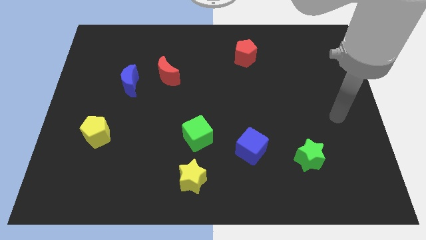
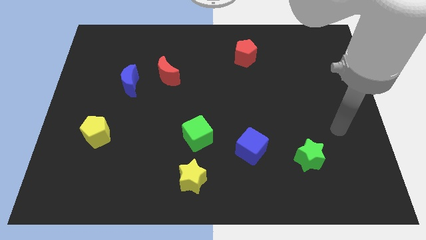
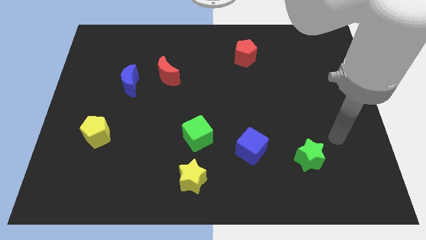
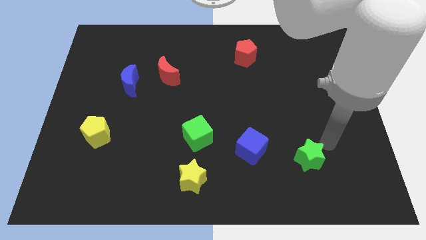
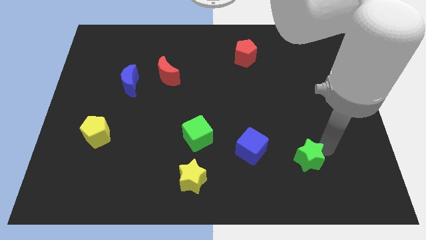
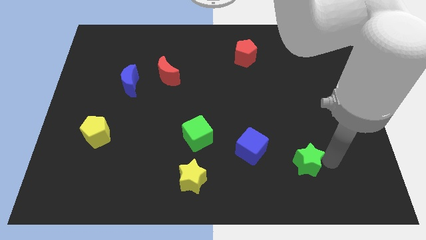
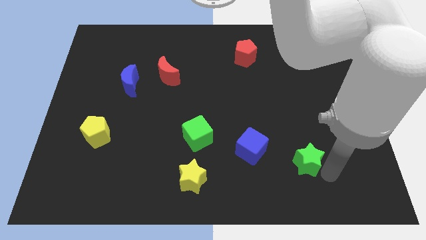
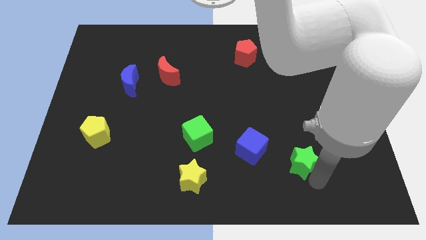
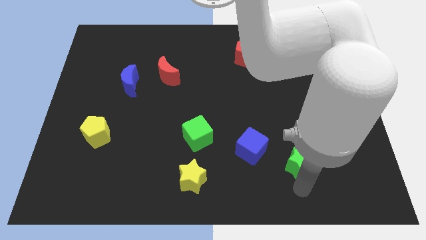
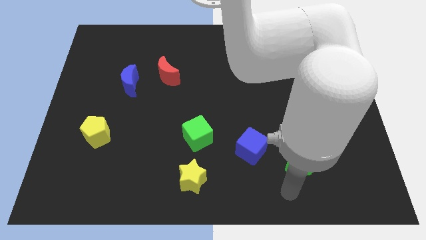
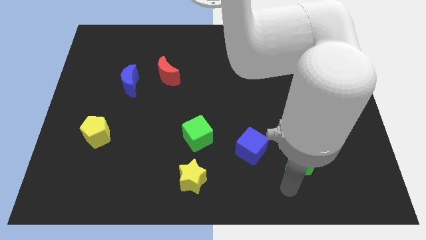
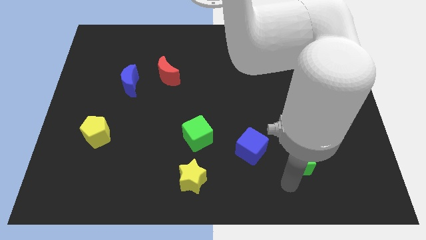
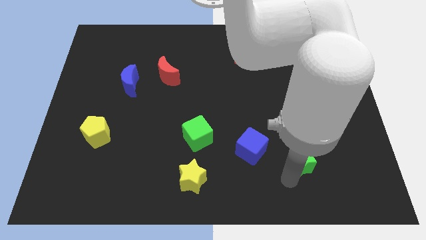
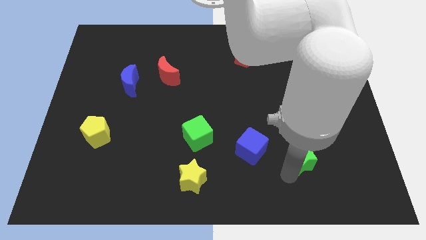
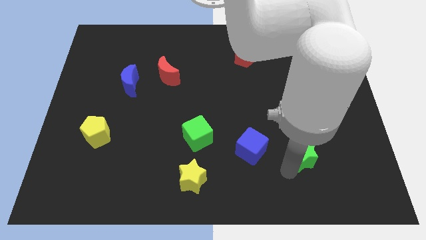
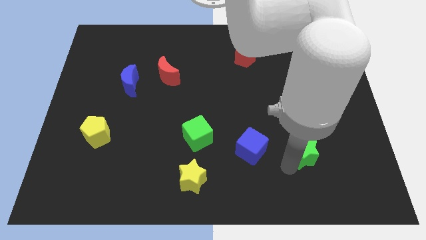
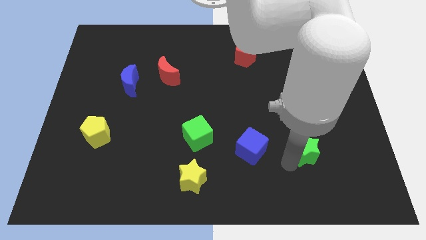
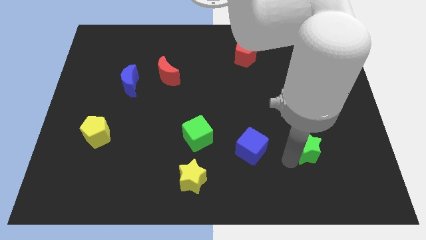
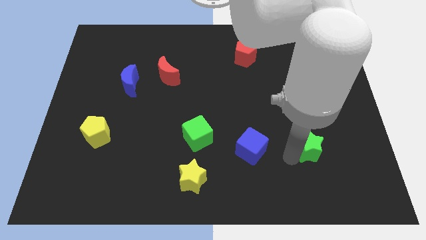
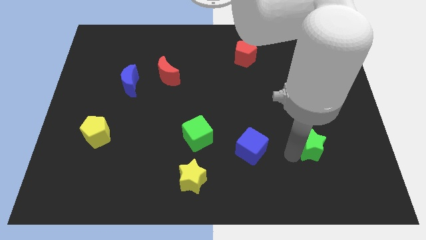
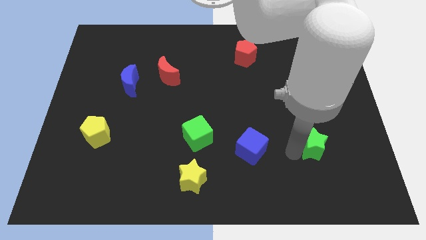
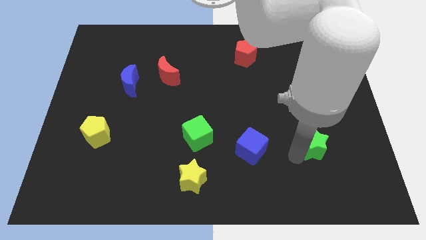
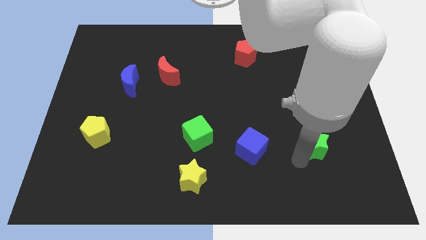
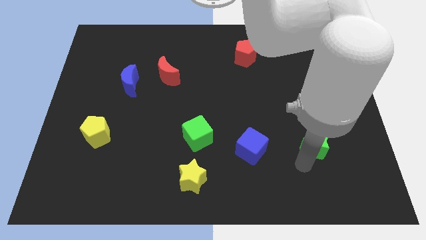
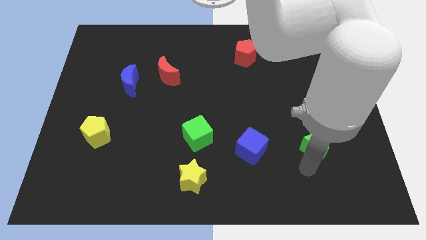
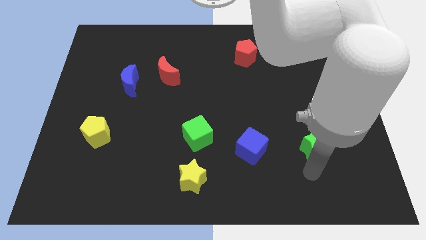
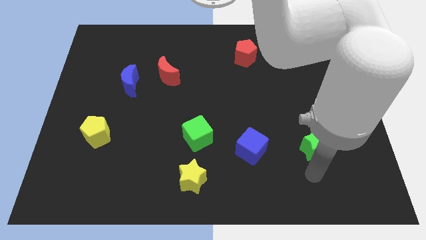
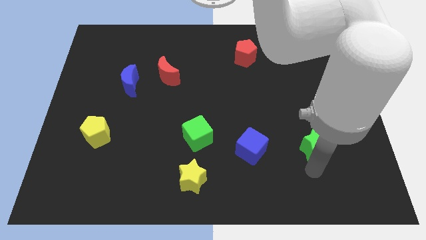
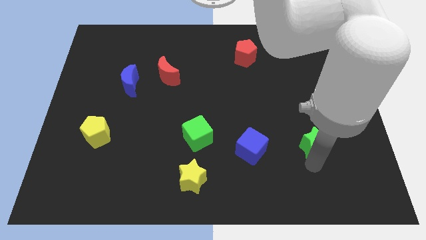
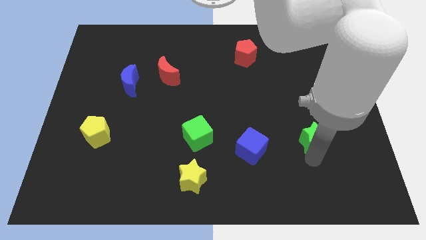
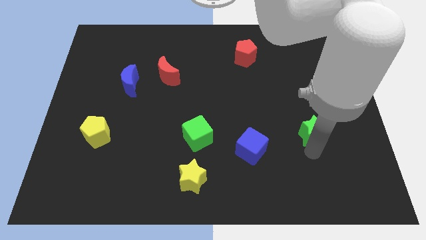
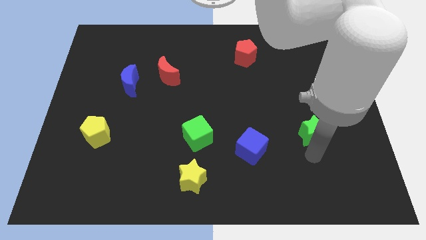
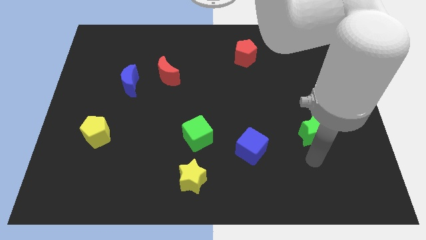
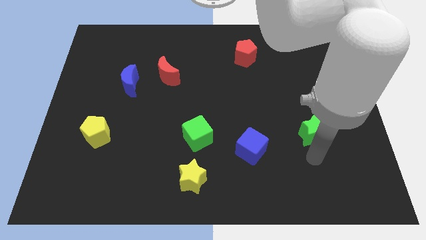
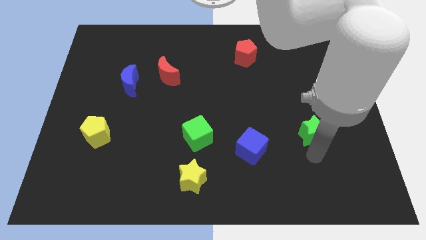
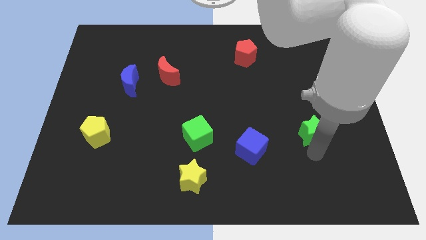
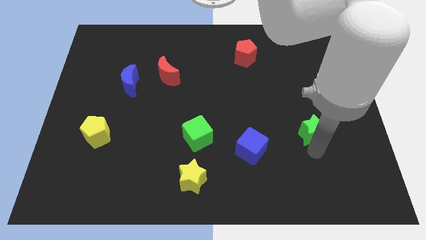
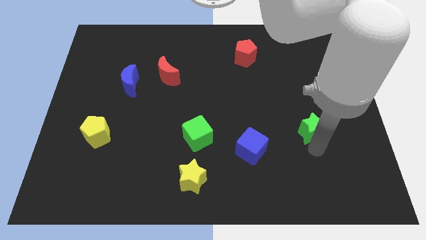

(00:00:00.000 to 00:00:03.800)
slightly push the green star up

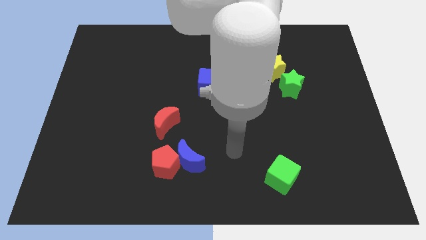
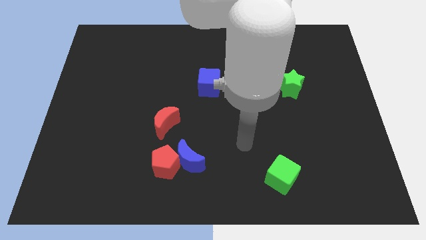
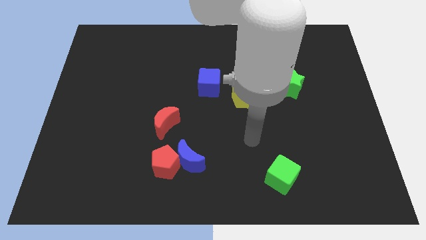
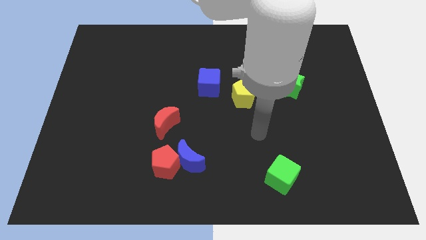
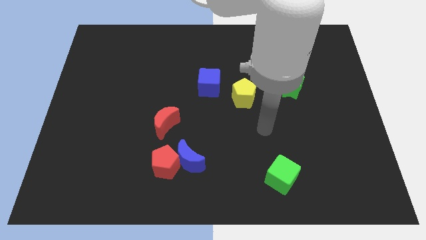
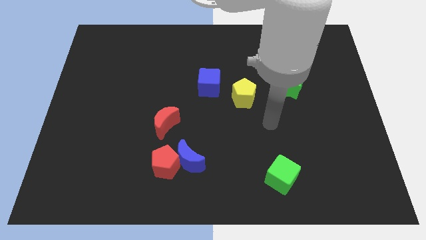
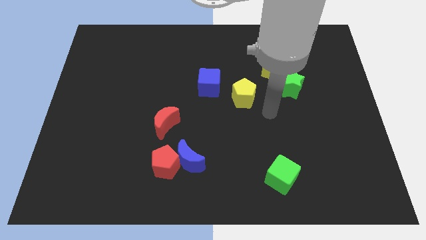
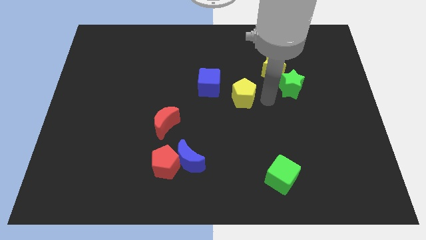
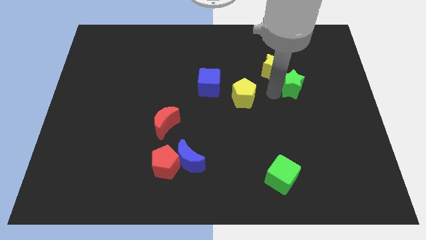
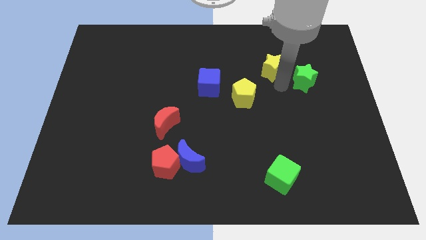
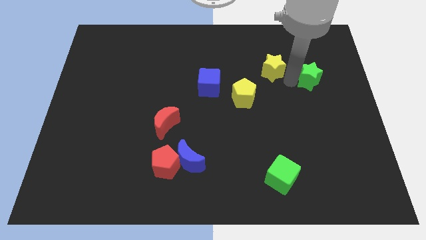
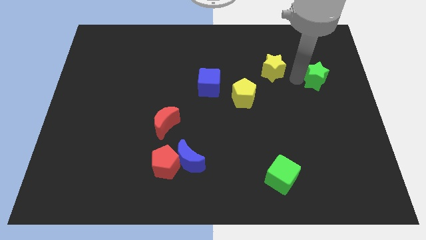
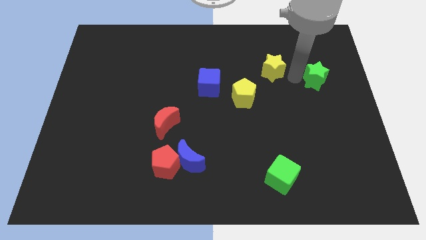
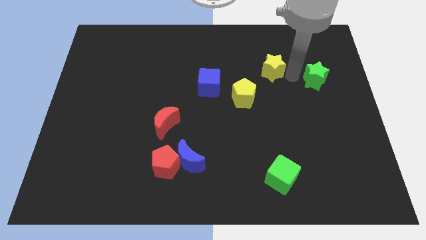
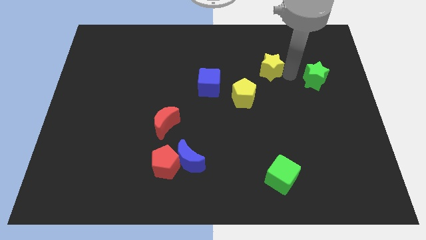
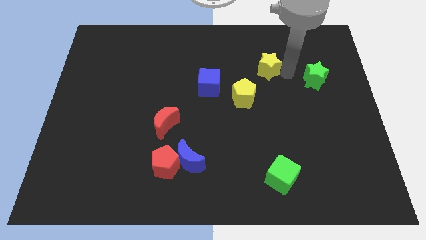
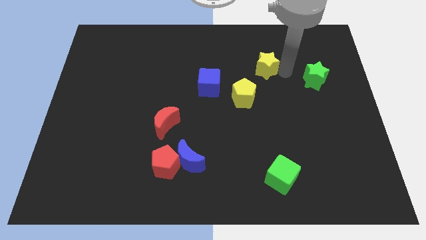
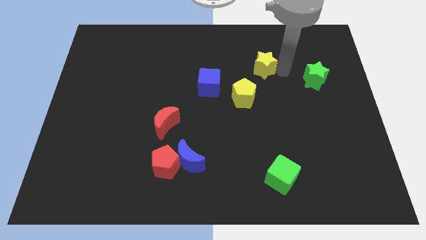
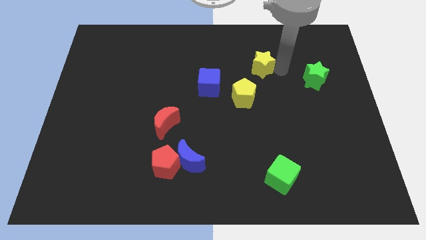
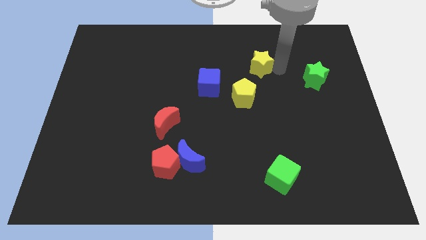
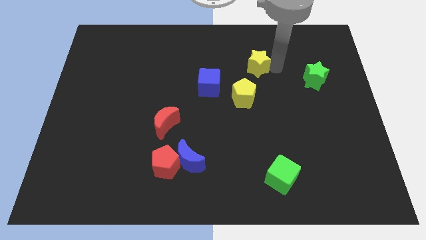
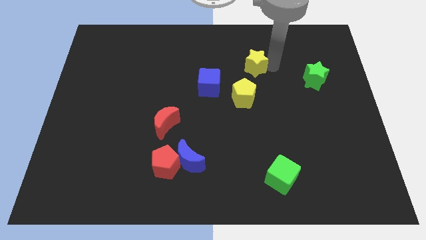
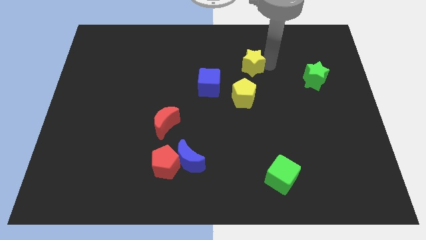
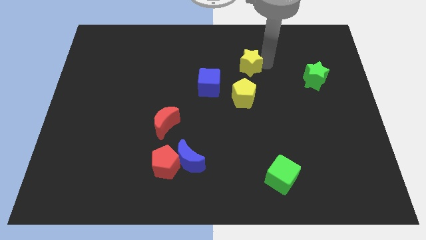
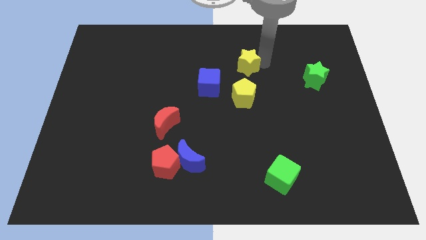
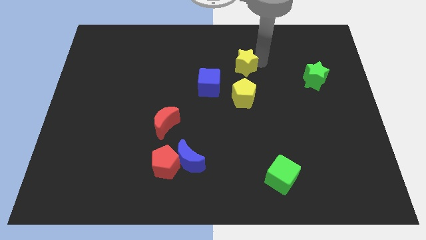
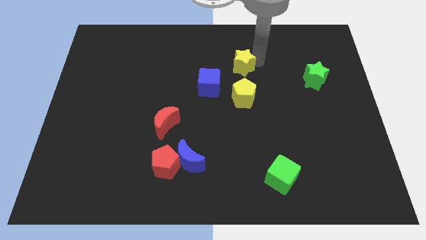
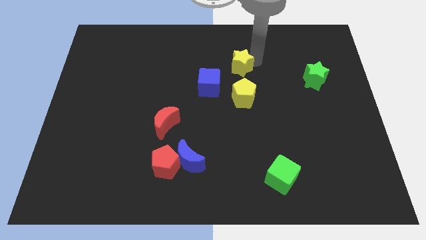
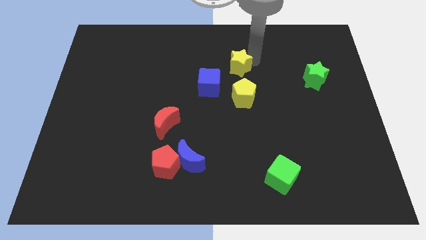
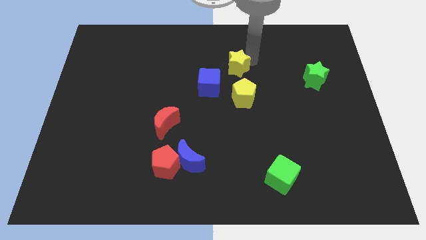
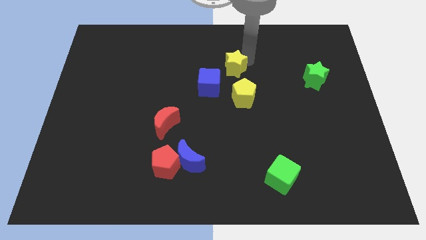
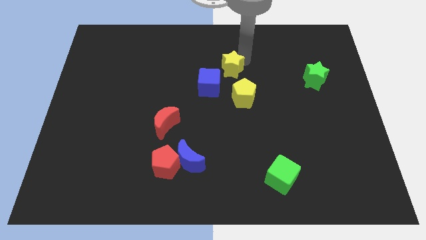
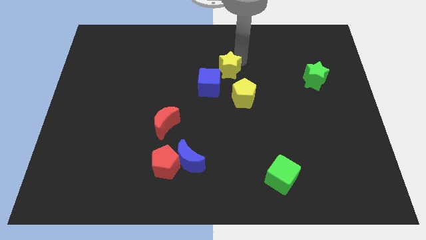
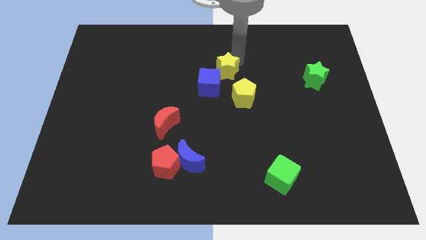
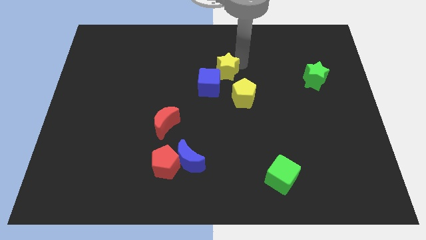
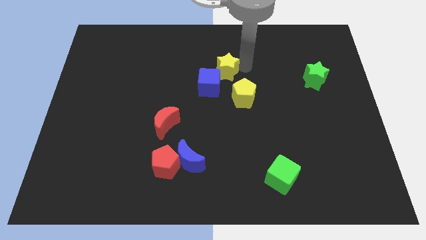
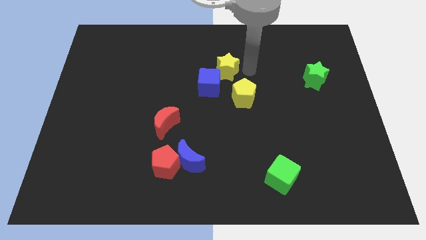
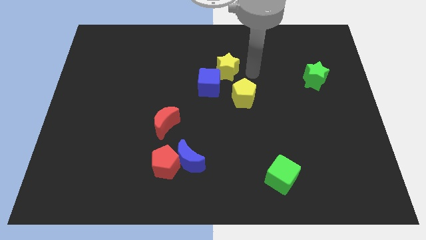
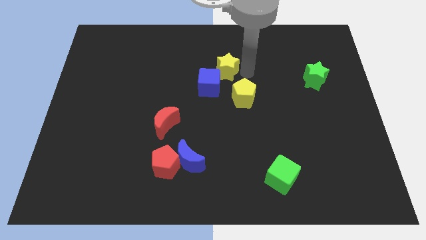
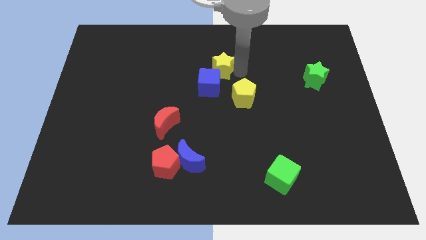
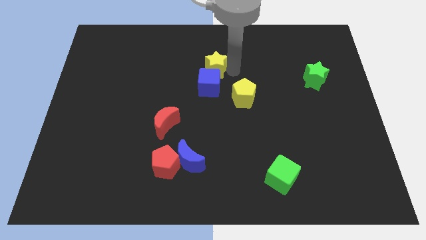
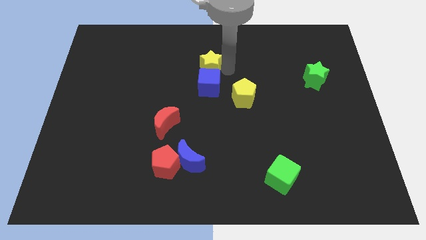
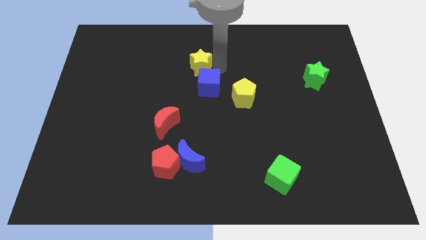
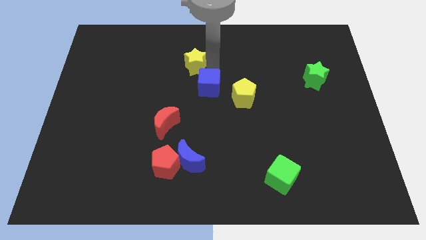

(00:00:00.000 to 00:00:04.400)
push the yellow star left

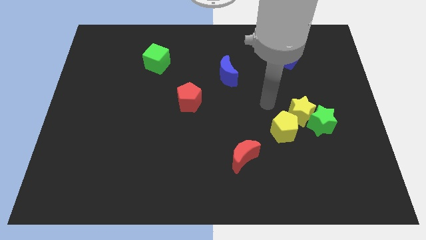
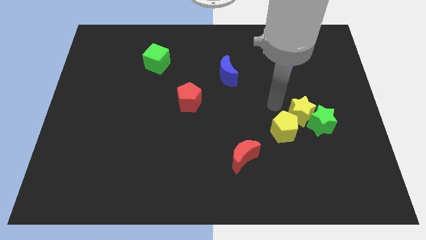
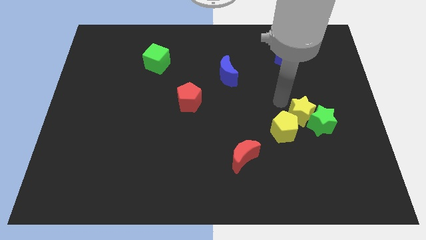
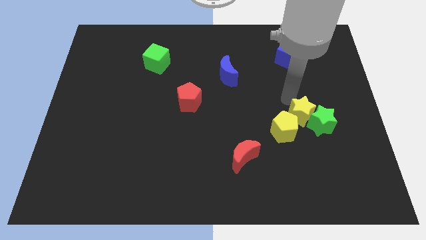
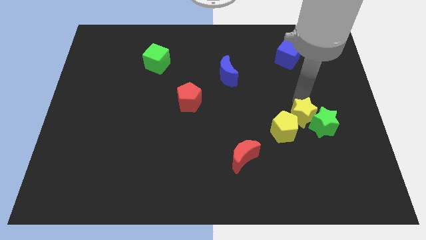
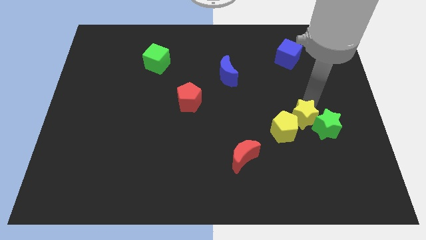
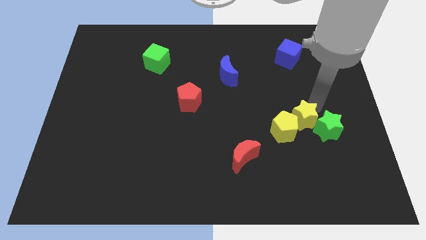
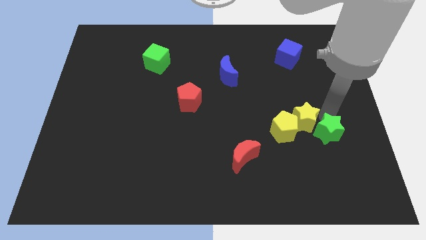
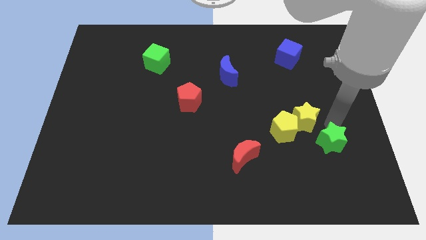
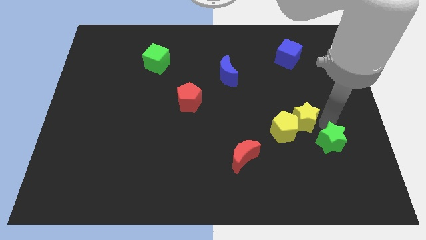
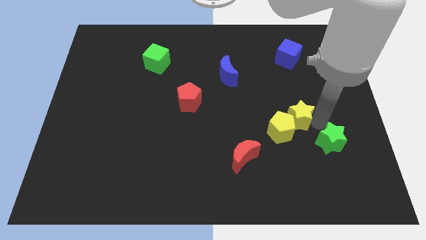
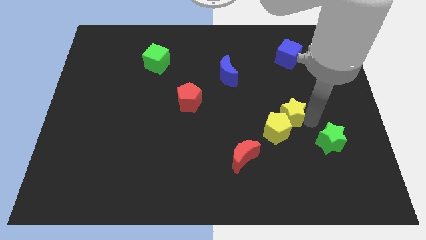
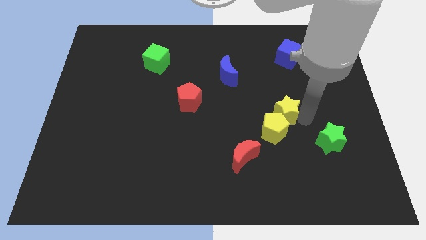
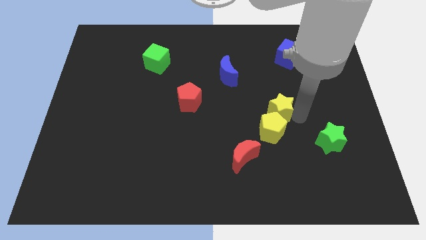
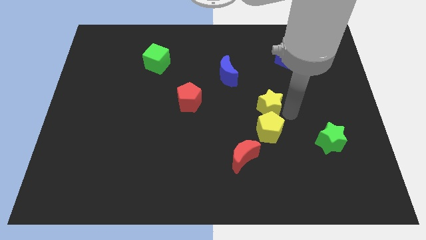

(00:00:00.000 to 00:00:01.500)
push the yellow star to the left a little
